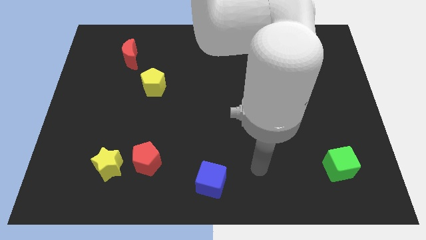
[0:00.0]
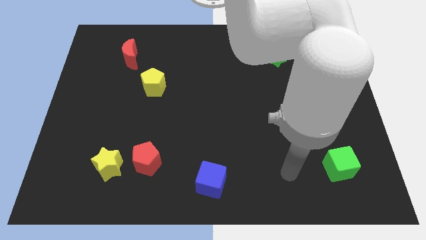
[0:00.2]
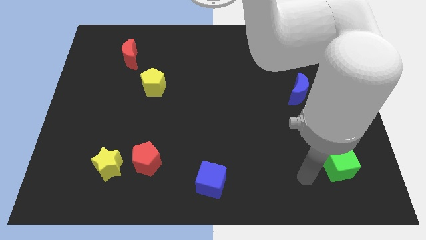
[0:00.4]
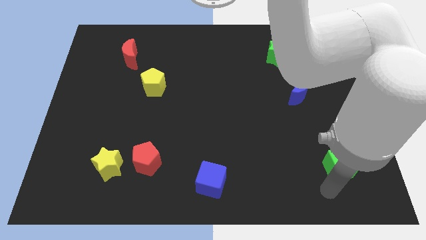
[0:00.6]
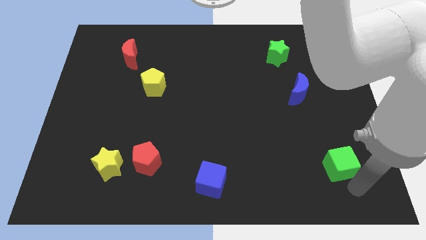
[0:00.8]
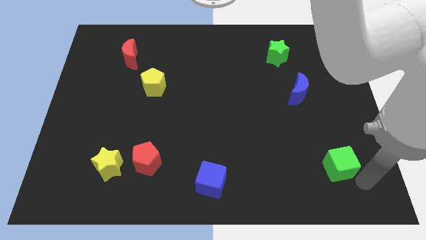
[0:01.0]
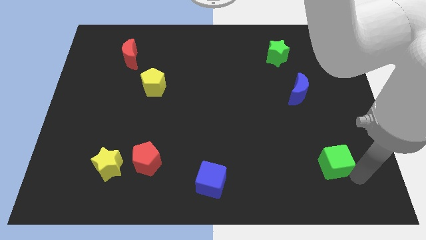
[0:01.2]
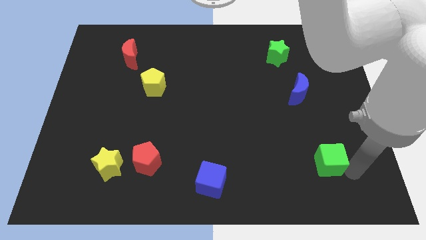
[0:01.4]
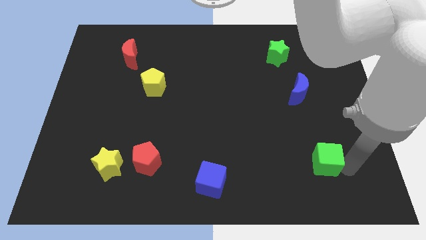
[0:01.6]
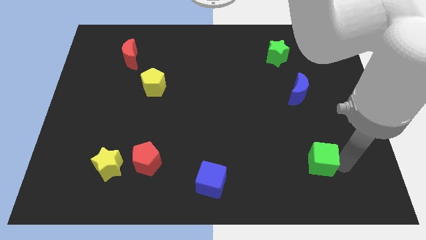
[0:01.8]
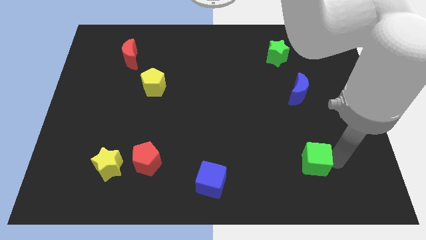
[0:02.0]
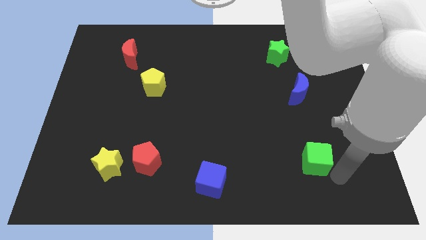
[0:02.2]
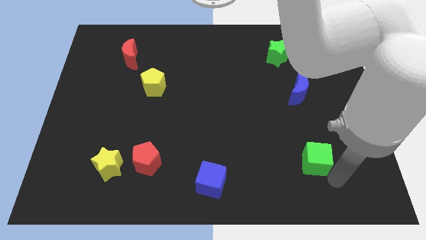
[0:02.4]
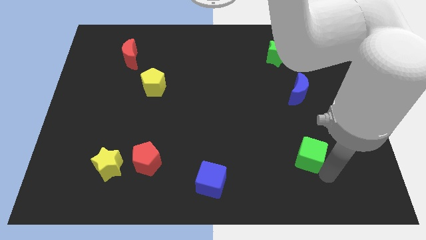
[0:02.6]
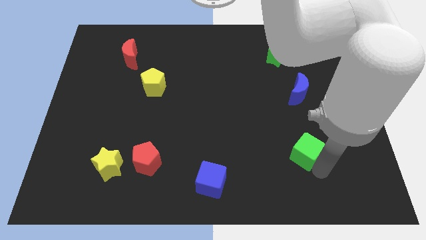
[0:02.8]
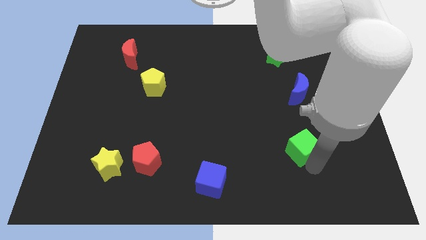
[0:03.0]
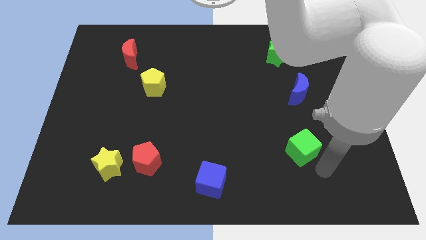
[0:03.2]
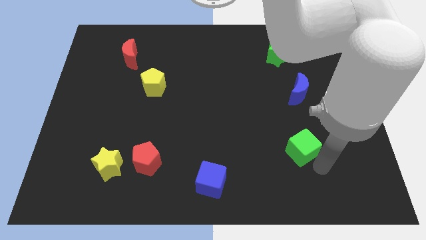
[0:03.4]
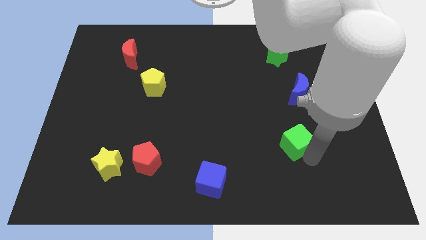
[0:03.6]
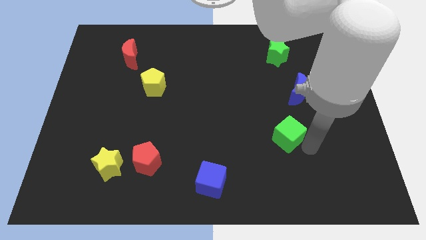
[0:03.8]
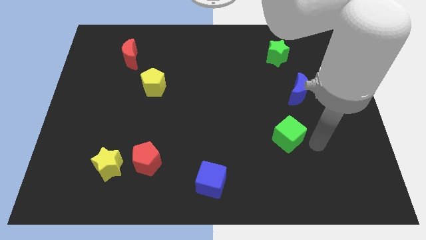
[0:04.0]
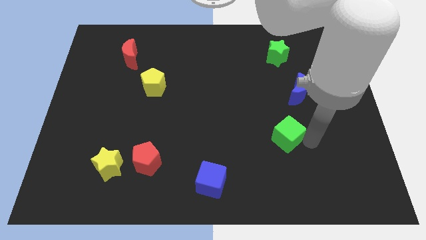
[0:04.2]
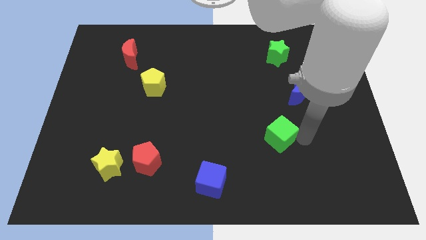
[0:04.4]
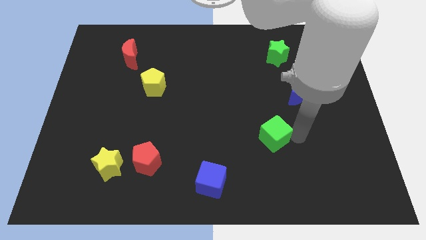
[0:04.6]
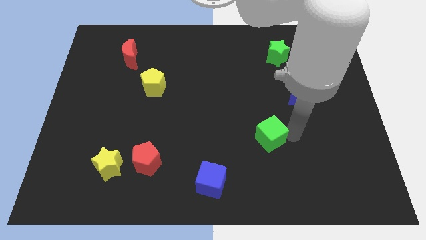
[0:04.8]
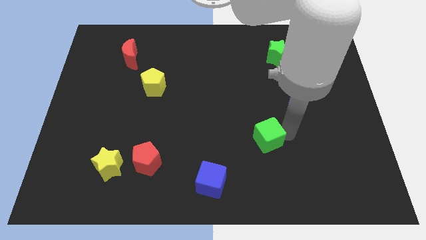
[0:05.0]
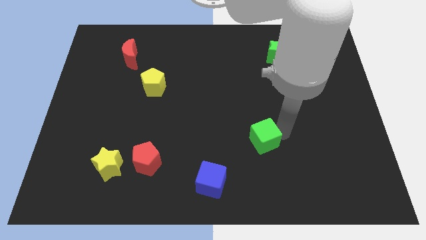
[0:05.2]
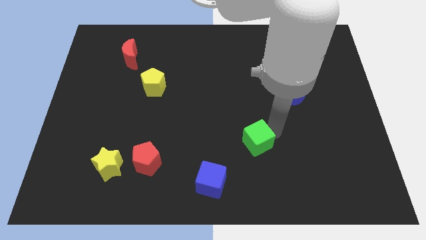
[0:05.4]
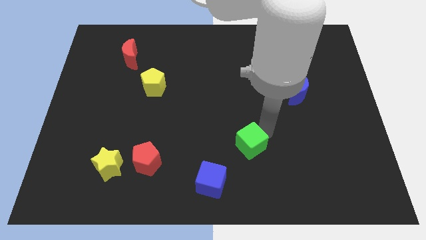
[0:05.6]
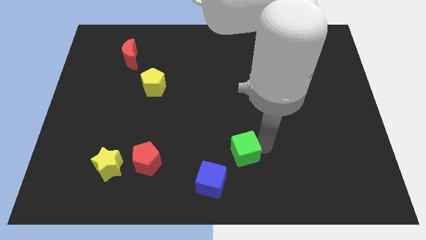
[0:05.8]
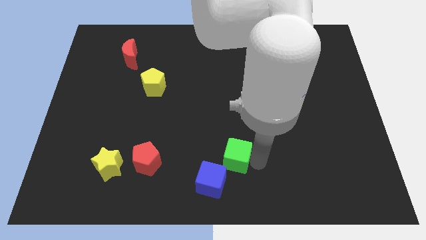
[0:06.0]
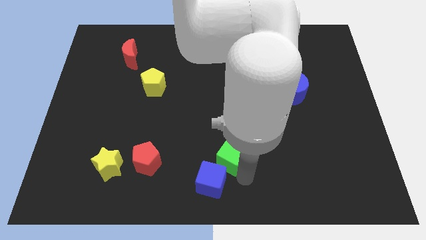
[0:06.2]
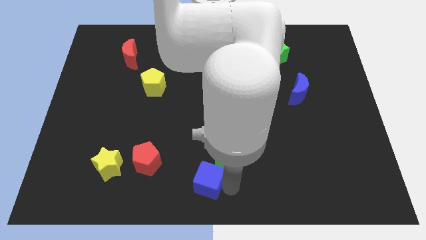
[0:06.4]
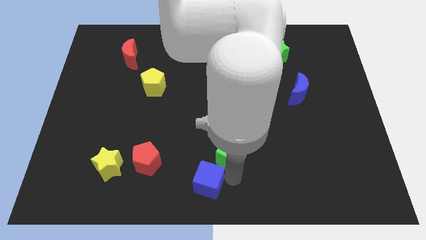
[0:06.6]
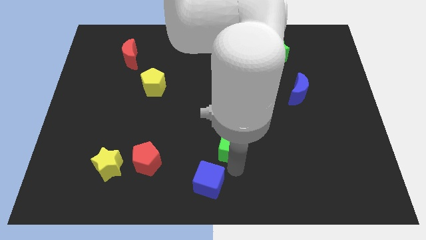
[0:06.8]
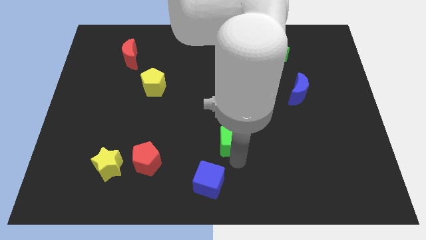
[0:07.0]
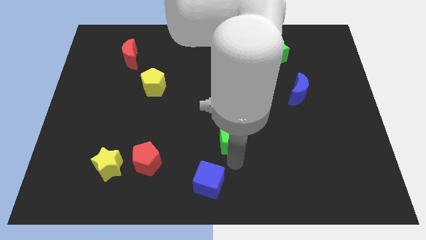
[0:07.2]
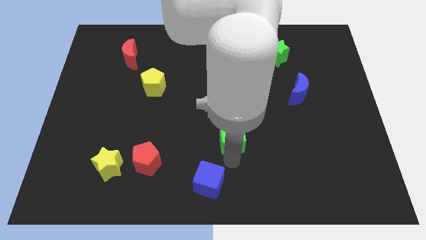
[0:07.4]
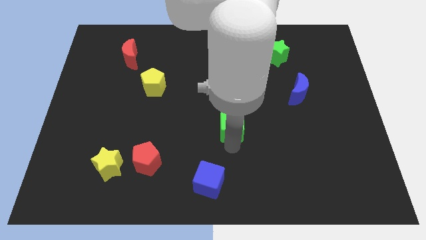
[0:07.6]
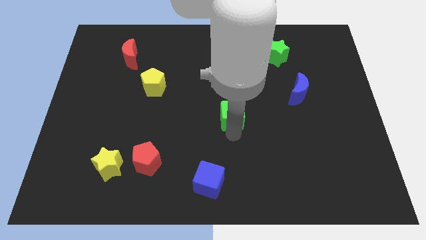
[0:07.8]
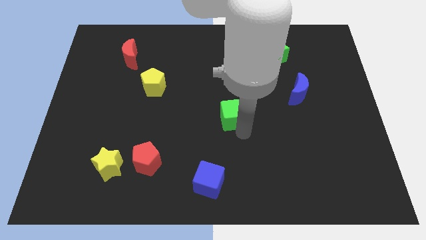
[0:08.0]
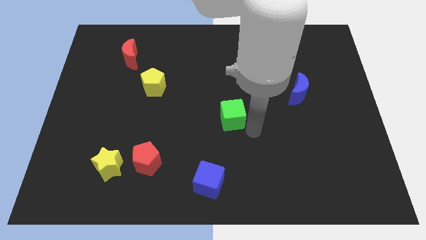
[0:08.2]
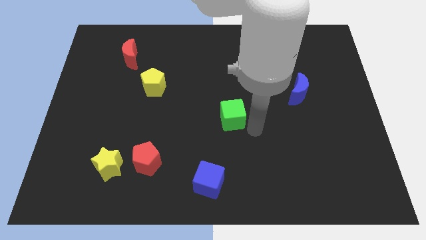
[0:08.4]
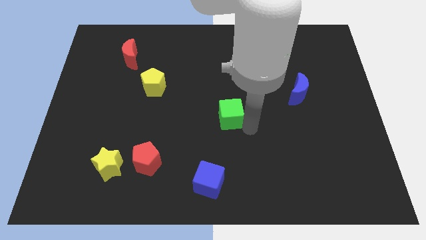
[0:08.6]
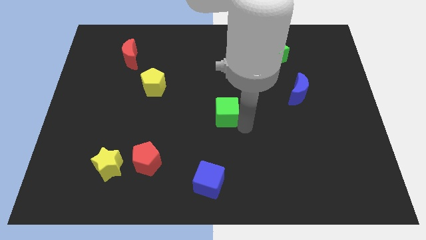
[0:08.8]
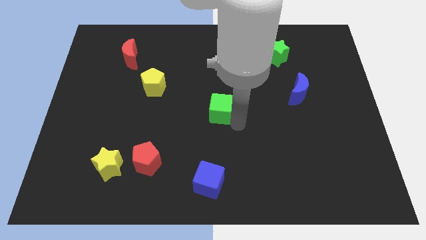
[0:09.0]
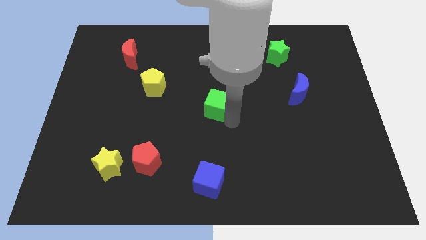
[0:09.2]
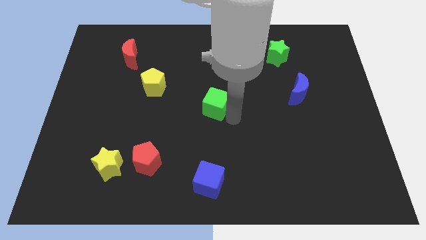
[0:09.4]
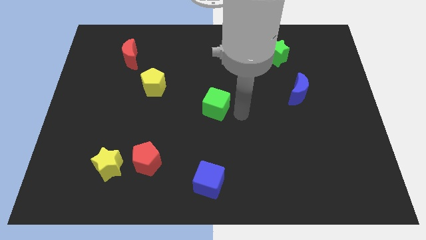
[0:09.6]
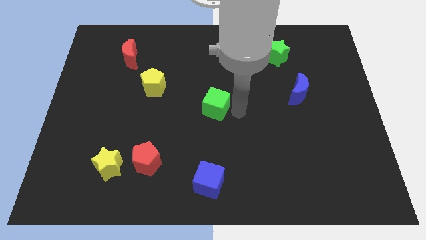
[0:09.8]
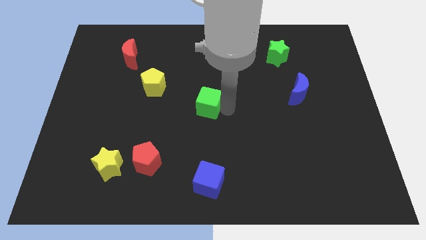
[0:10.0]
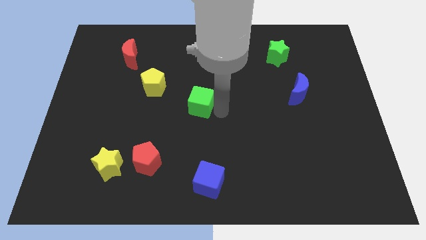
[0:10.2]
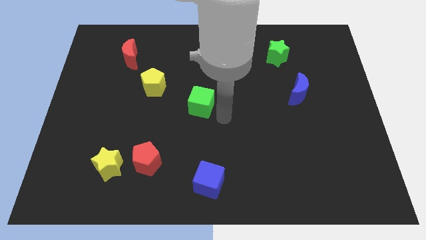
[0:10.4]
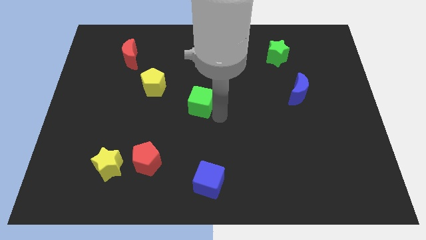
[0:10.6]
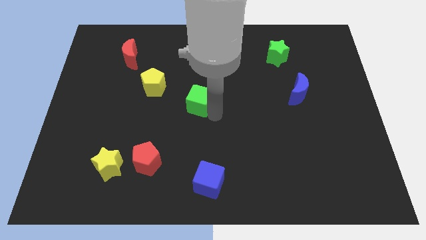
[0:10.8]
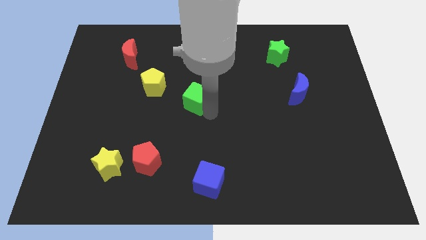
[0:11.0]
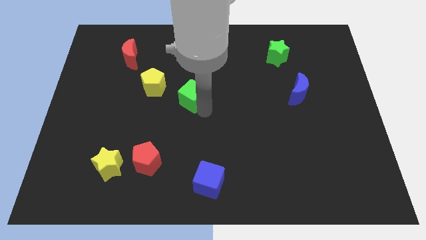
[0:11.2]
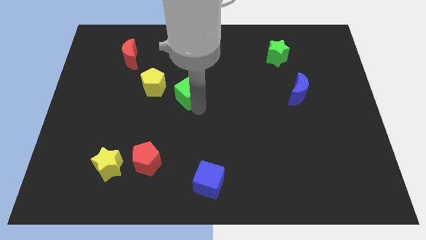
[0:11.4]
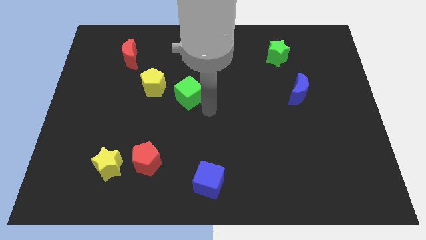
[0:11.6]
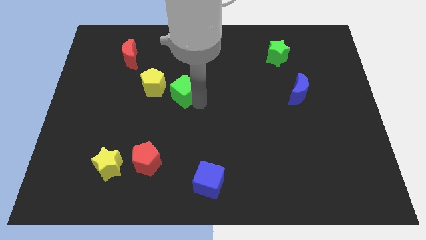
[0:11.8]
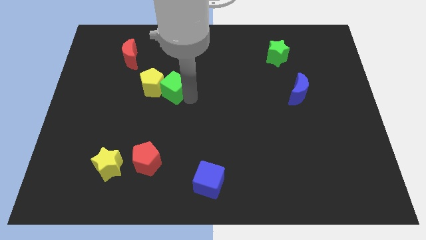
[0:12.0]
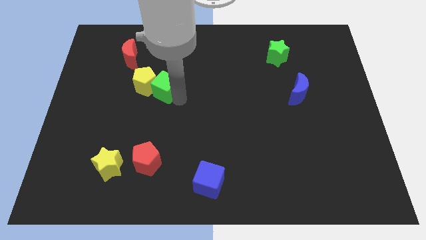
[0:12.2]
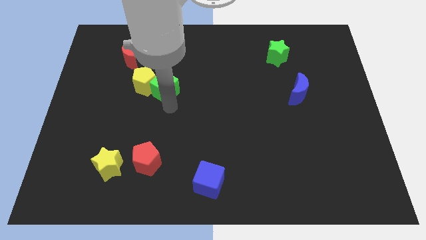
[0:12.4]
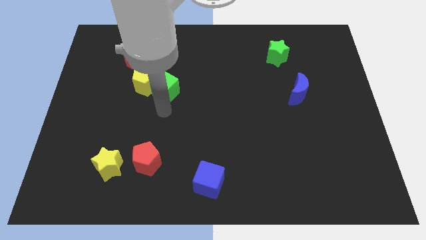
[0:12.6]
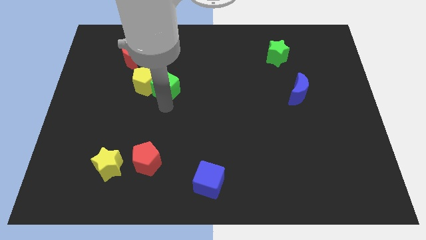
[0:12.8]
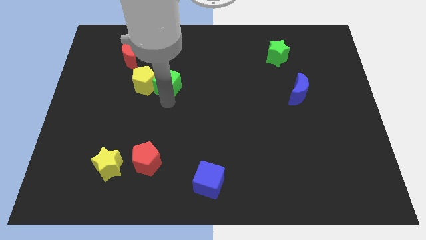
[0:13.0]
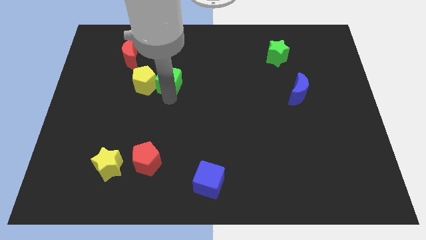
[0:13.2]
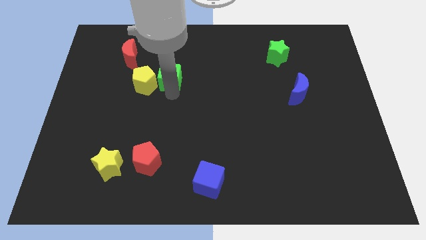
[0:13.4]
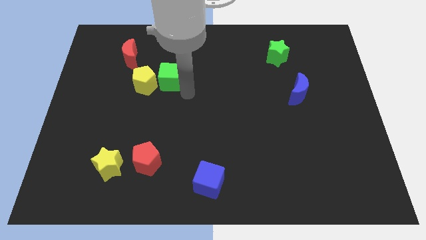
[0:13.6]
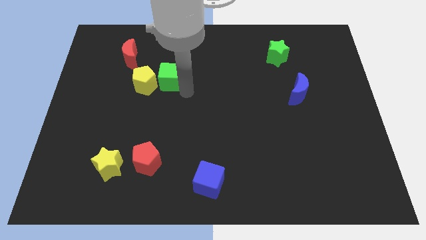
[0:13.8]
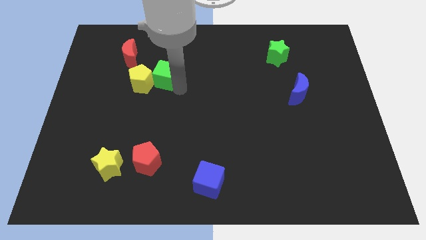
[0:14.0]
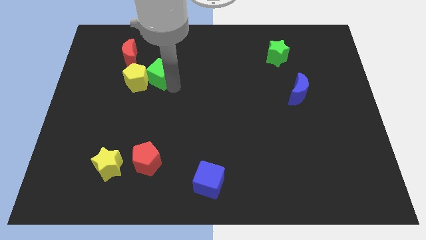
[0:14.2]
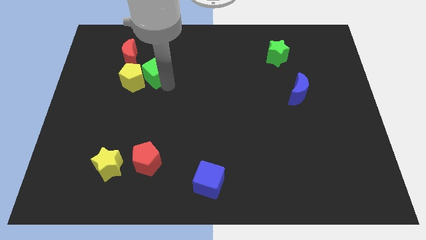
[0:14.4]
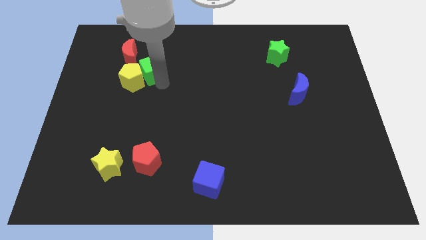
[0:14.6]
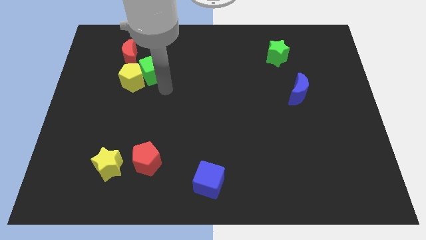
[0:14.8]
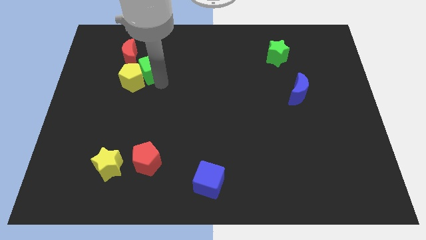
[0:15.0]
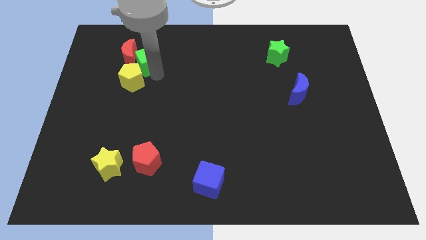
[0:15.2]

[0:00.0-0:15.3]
push the green cube close to the red moon
